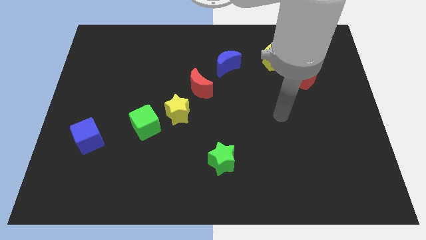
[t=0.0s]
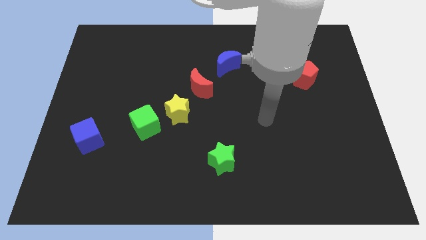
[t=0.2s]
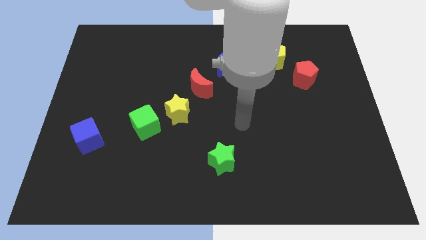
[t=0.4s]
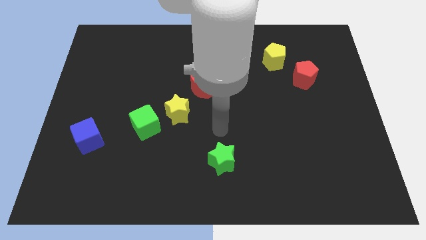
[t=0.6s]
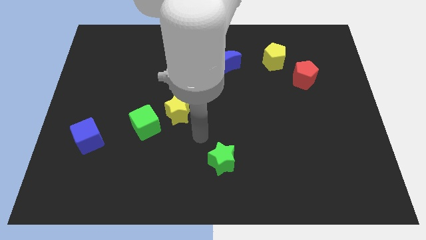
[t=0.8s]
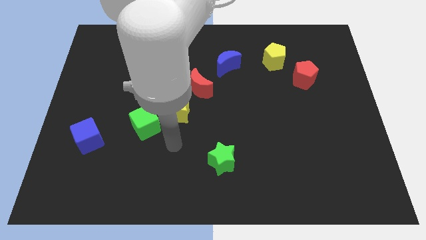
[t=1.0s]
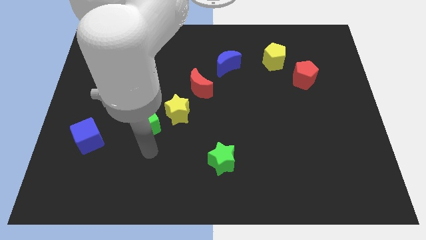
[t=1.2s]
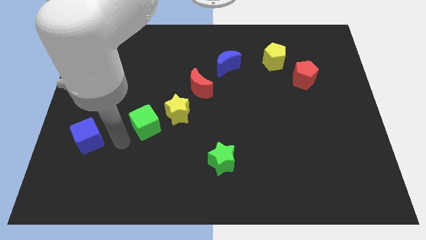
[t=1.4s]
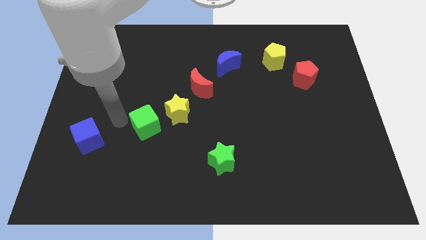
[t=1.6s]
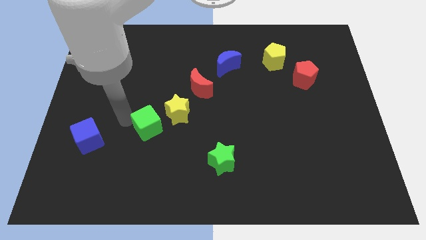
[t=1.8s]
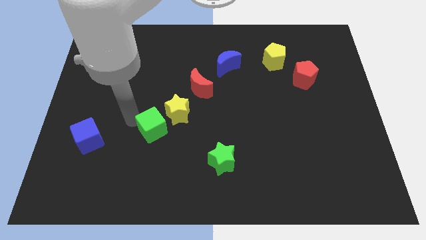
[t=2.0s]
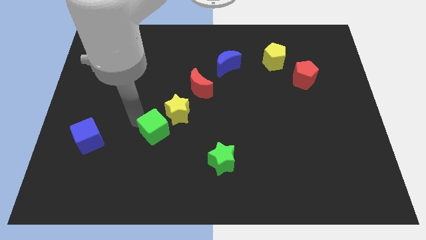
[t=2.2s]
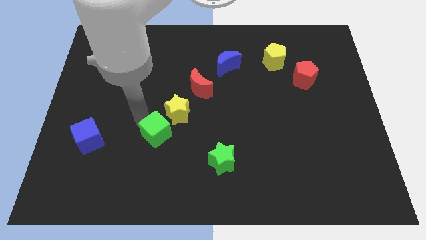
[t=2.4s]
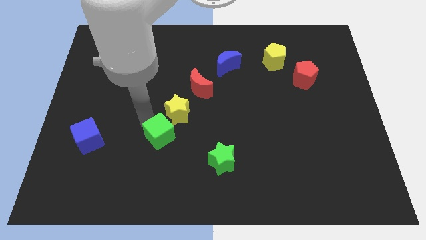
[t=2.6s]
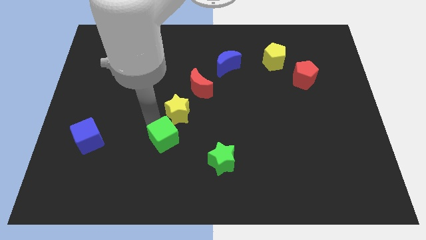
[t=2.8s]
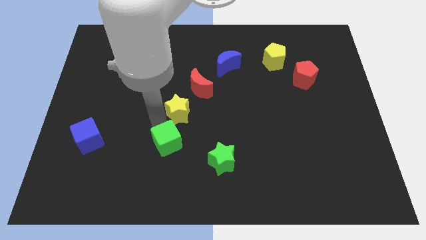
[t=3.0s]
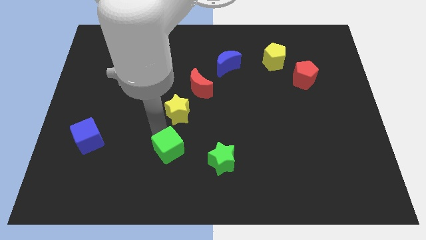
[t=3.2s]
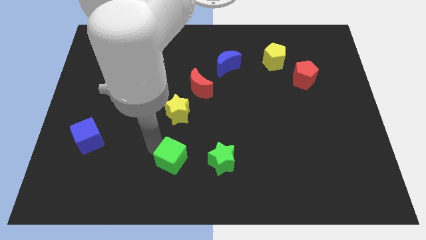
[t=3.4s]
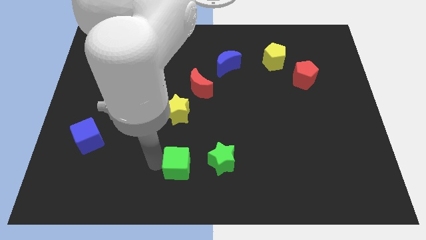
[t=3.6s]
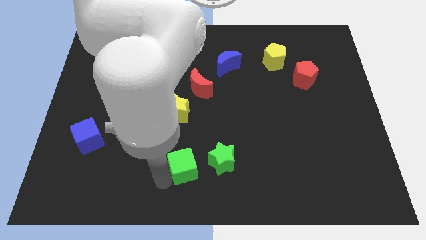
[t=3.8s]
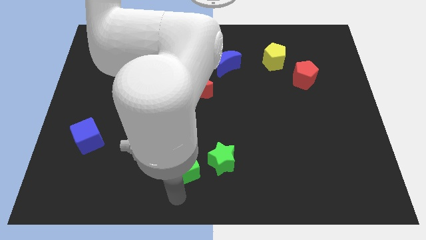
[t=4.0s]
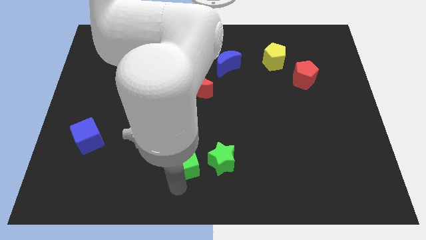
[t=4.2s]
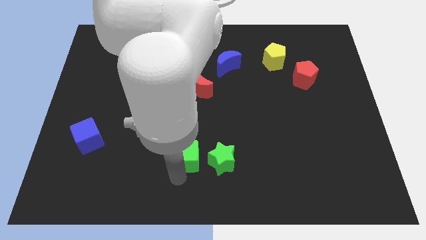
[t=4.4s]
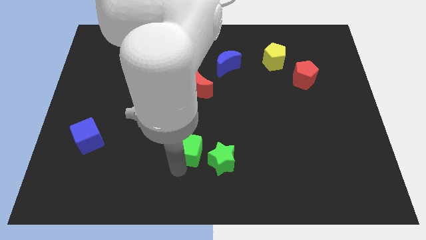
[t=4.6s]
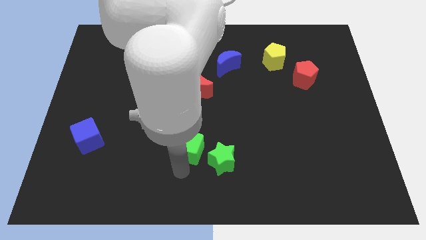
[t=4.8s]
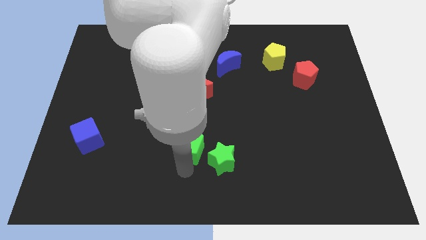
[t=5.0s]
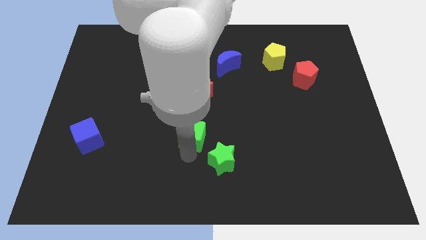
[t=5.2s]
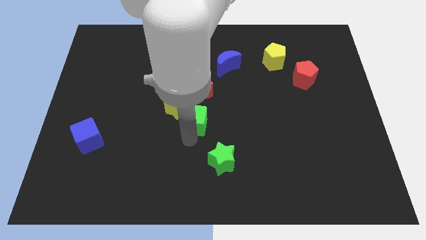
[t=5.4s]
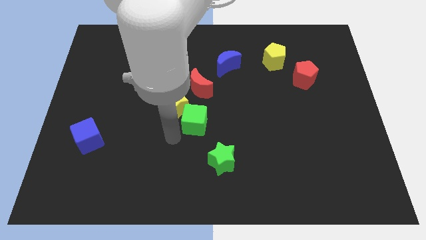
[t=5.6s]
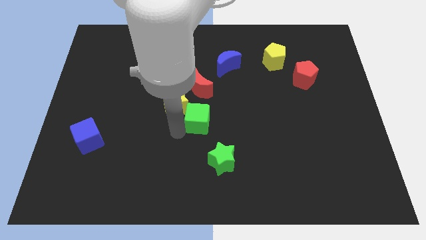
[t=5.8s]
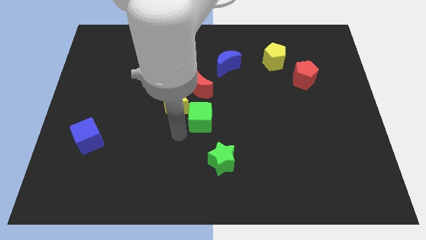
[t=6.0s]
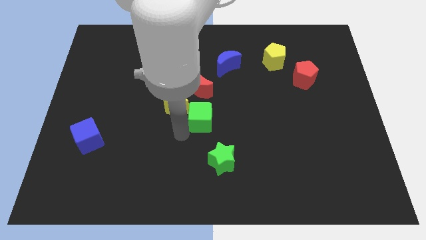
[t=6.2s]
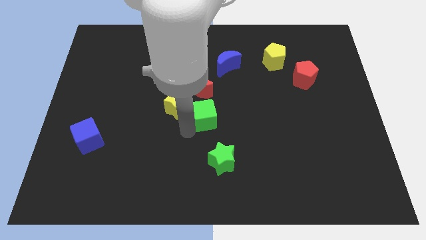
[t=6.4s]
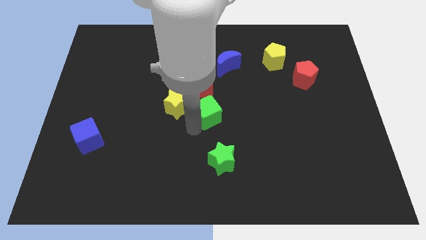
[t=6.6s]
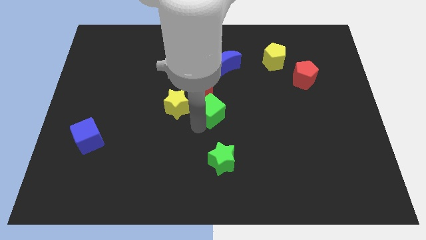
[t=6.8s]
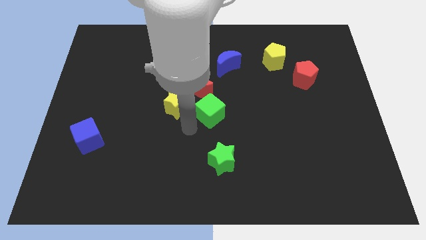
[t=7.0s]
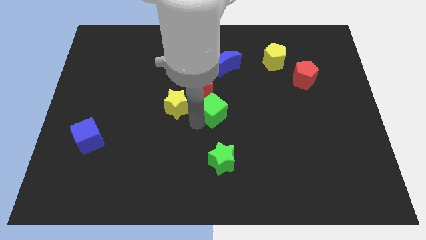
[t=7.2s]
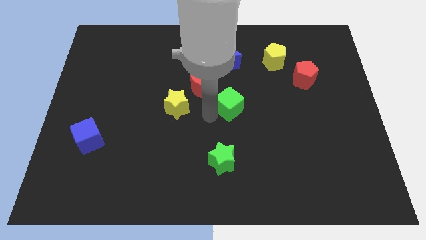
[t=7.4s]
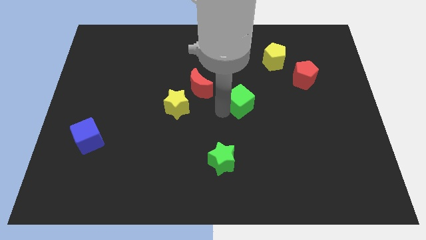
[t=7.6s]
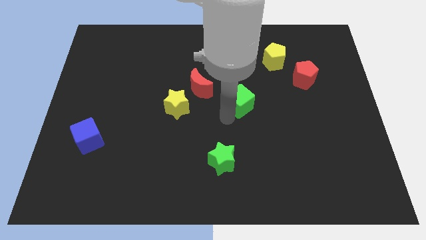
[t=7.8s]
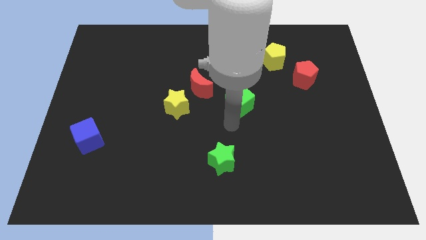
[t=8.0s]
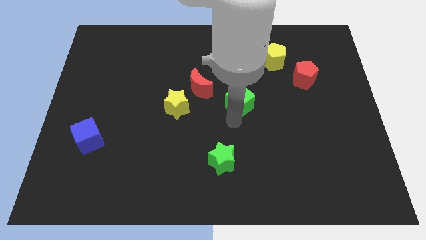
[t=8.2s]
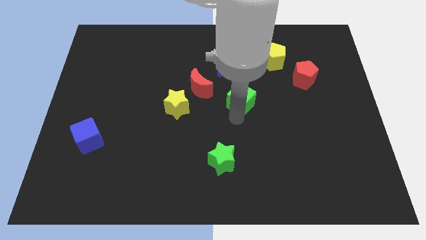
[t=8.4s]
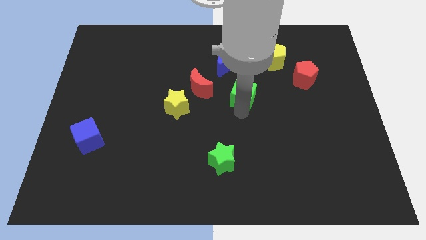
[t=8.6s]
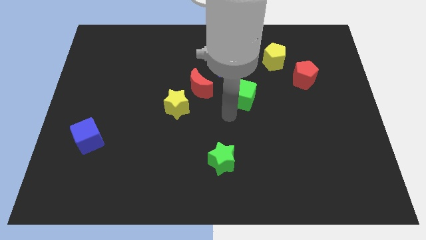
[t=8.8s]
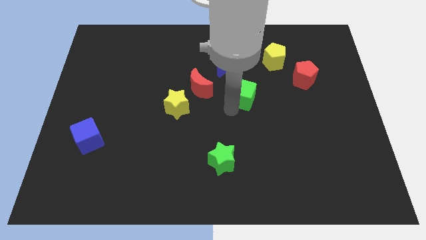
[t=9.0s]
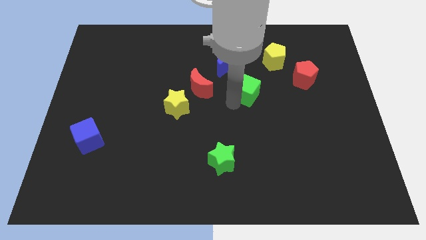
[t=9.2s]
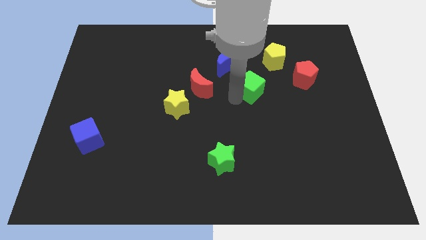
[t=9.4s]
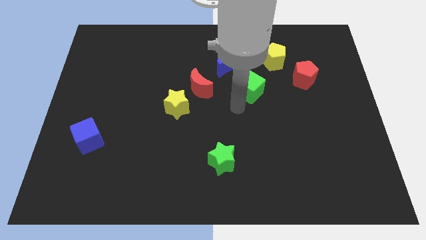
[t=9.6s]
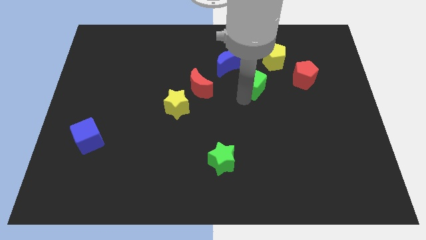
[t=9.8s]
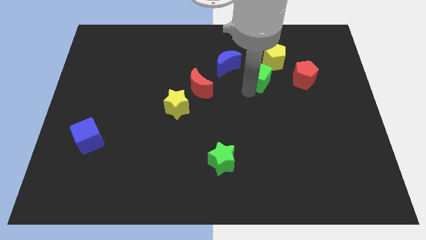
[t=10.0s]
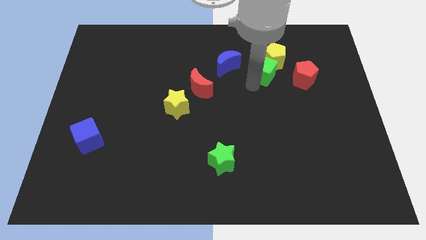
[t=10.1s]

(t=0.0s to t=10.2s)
push the green cube next to the yellow pentagon

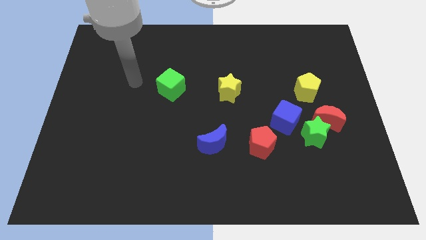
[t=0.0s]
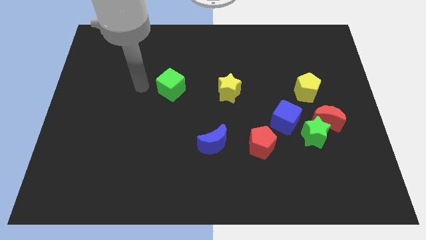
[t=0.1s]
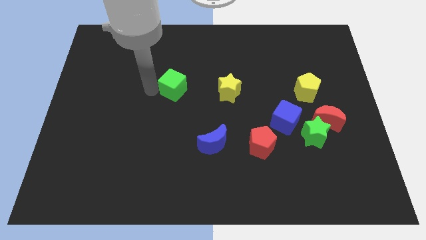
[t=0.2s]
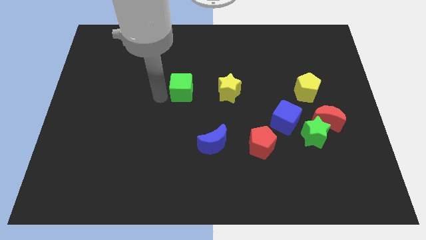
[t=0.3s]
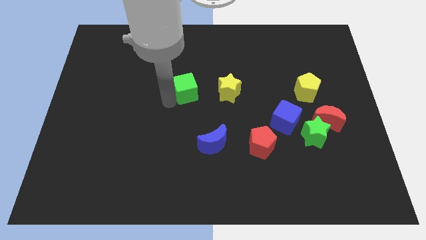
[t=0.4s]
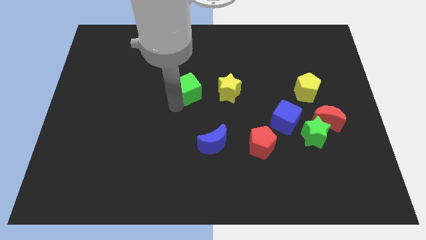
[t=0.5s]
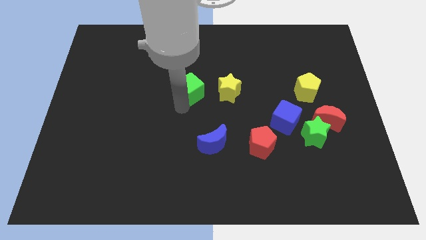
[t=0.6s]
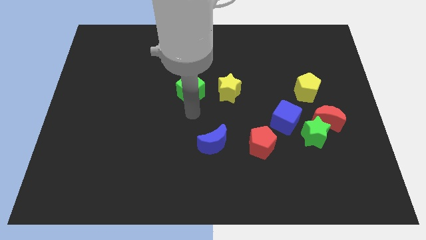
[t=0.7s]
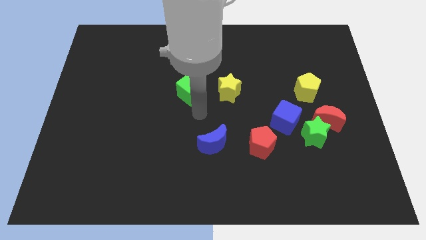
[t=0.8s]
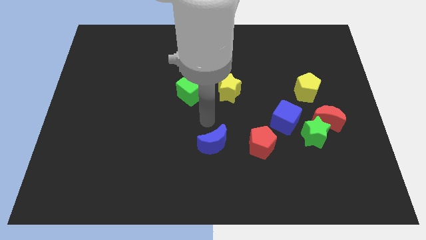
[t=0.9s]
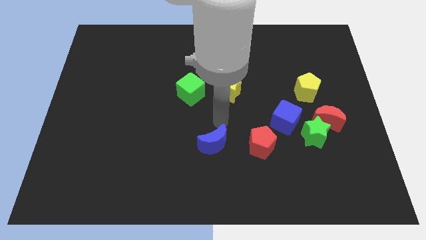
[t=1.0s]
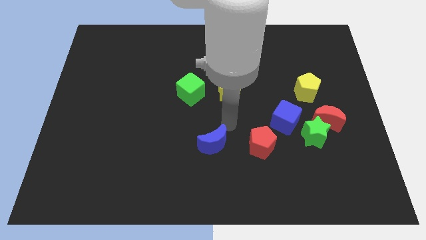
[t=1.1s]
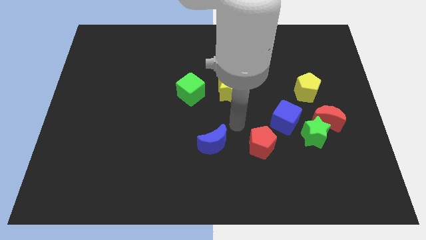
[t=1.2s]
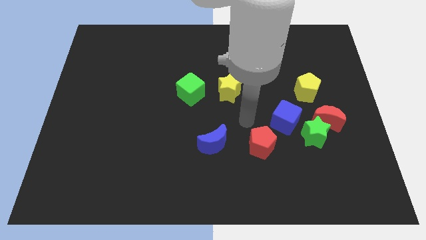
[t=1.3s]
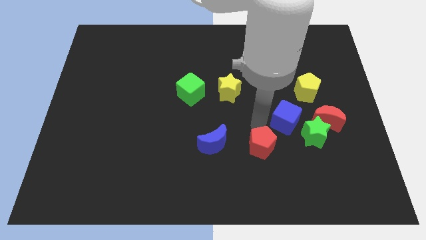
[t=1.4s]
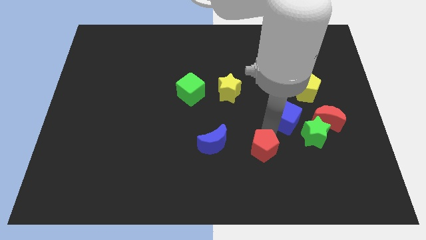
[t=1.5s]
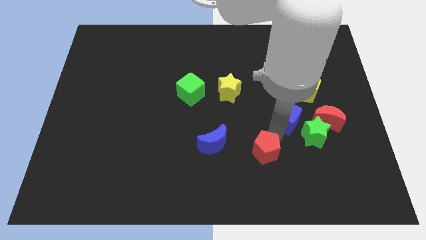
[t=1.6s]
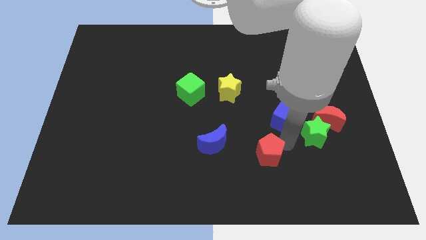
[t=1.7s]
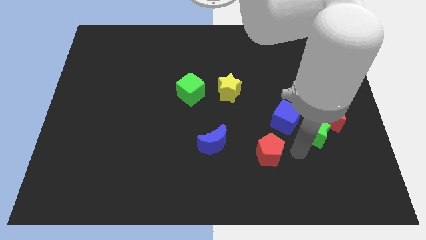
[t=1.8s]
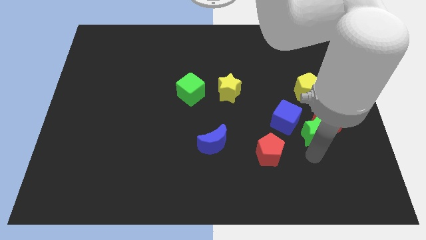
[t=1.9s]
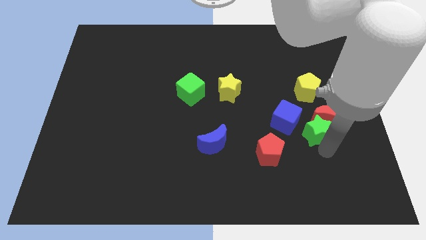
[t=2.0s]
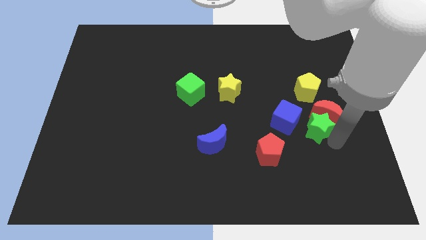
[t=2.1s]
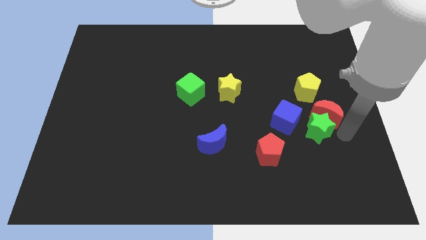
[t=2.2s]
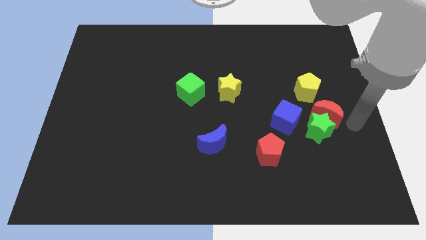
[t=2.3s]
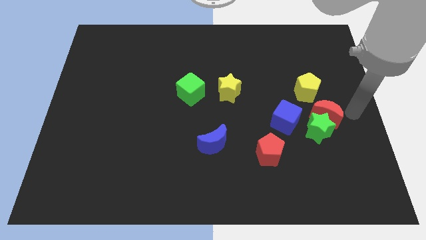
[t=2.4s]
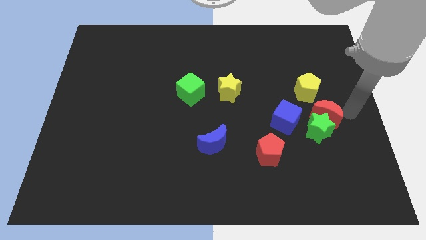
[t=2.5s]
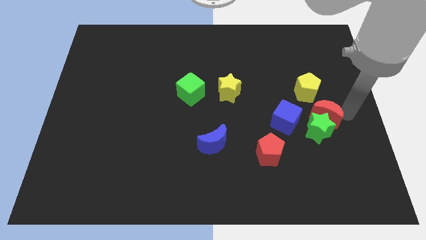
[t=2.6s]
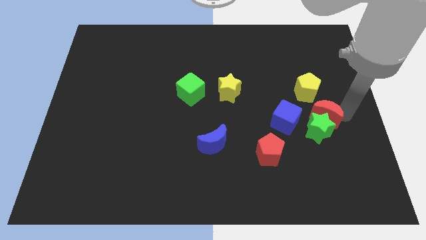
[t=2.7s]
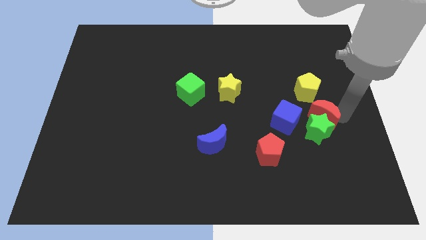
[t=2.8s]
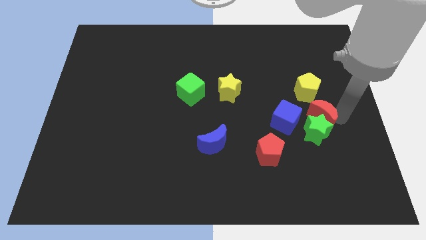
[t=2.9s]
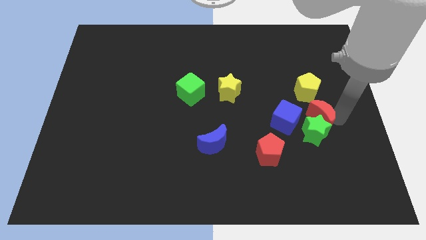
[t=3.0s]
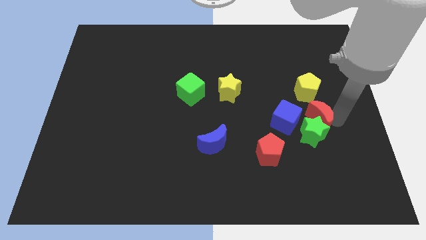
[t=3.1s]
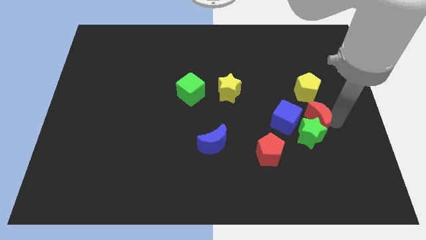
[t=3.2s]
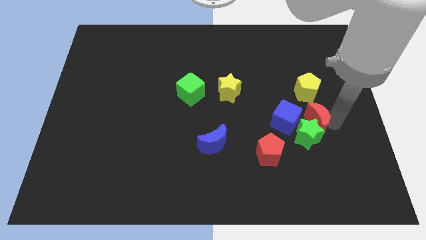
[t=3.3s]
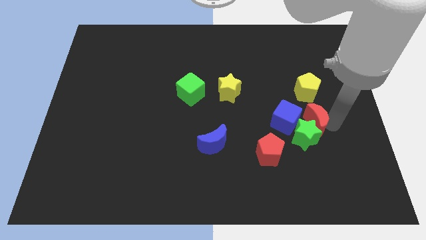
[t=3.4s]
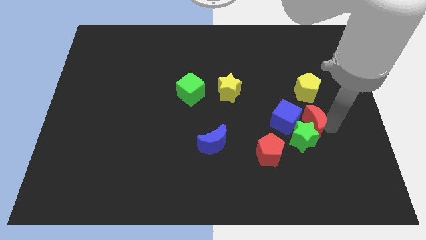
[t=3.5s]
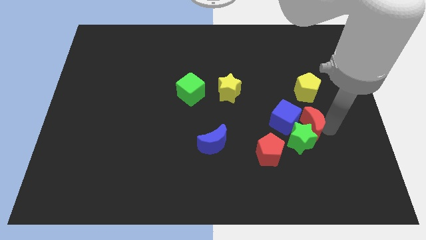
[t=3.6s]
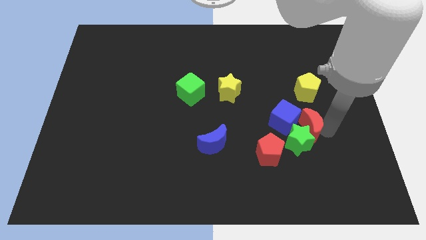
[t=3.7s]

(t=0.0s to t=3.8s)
put the red moon next to the blue cube
